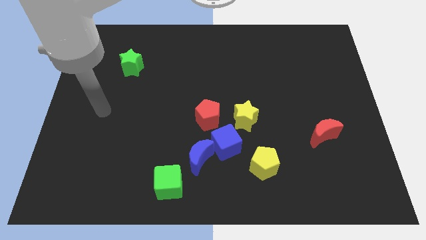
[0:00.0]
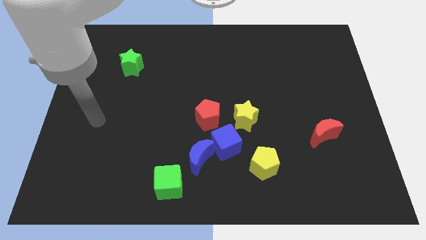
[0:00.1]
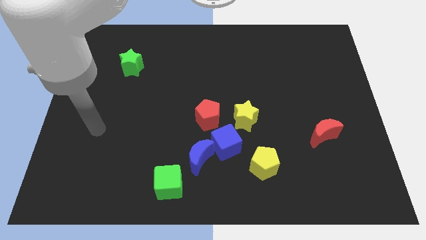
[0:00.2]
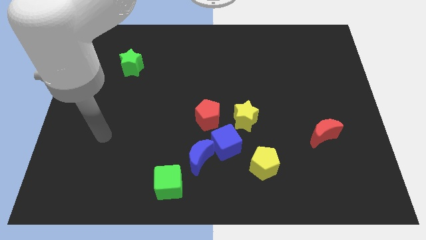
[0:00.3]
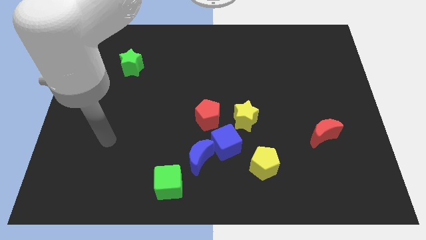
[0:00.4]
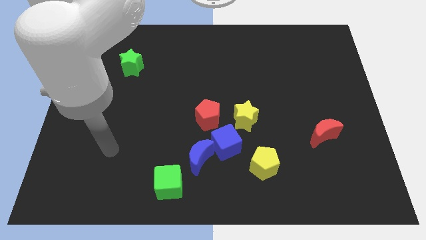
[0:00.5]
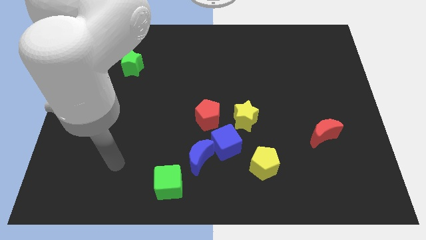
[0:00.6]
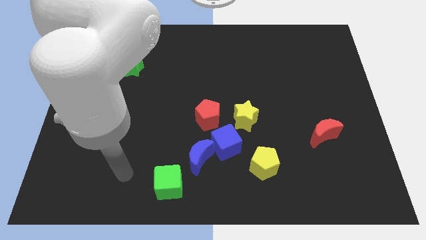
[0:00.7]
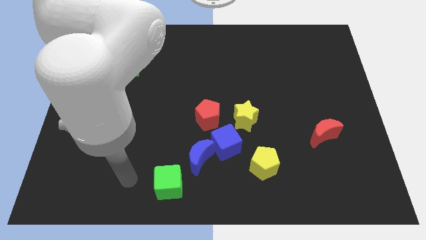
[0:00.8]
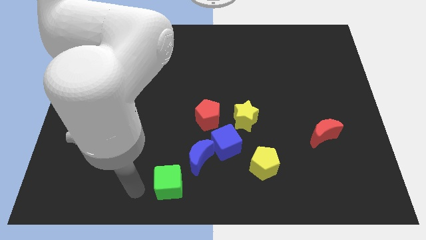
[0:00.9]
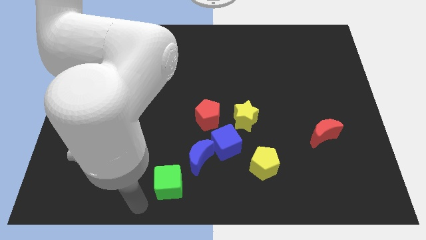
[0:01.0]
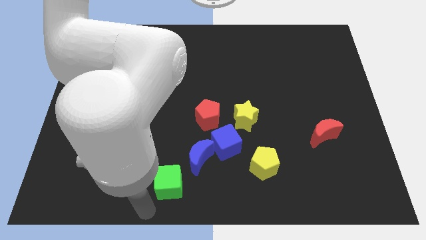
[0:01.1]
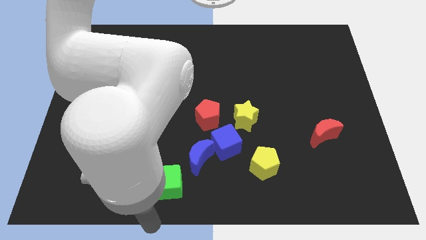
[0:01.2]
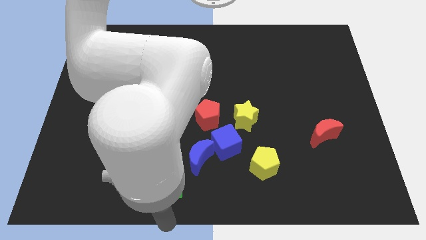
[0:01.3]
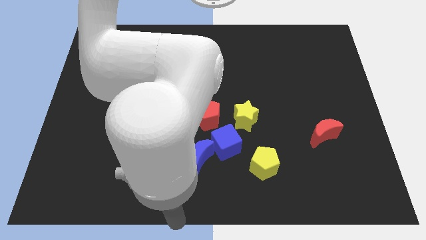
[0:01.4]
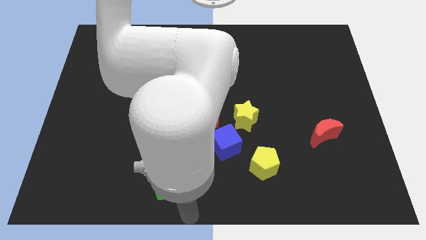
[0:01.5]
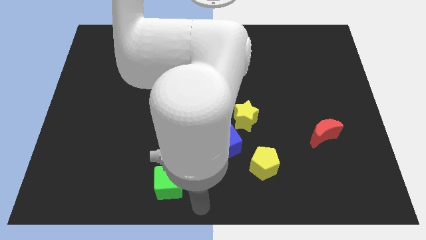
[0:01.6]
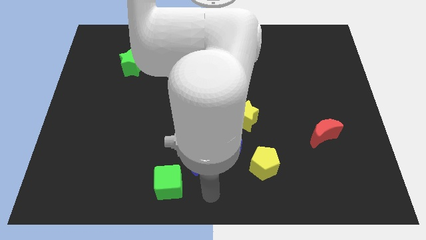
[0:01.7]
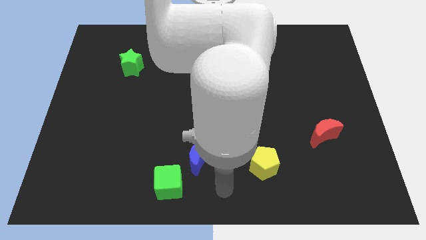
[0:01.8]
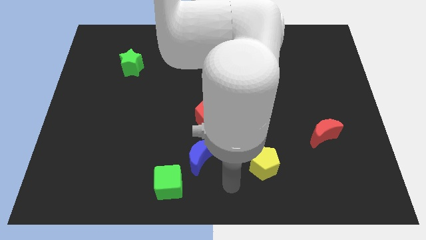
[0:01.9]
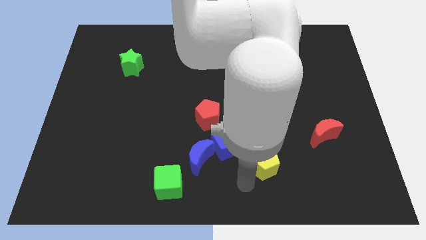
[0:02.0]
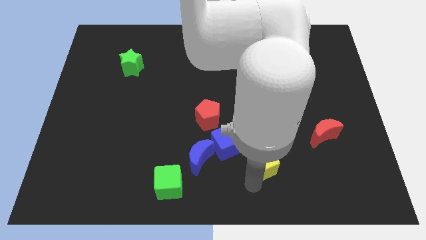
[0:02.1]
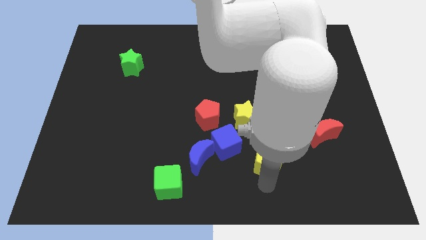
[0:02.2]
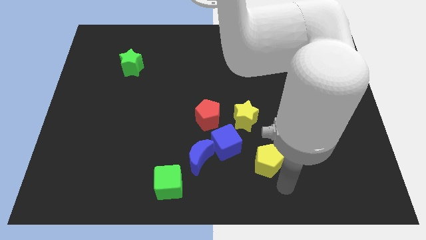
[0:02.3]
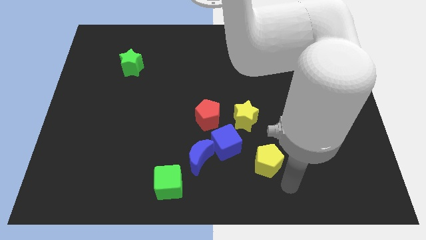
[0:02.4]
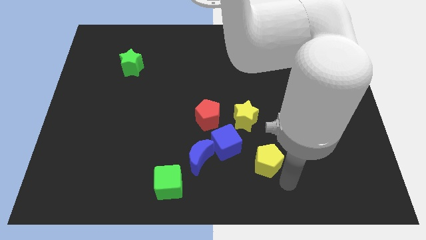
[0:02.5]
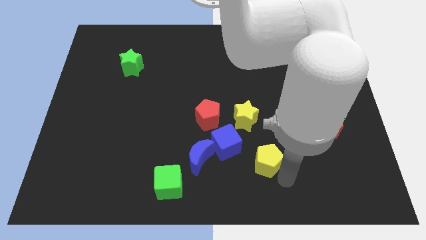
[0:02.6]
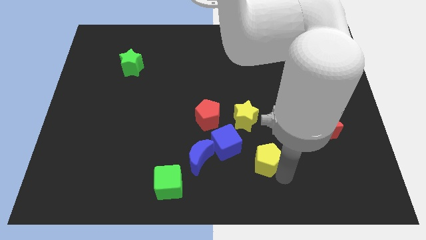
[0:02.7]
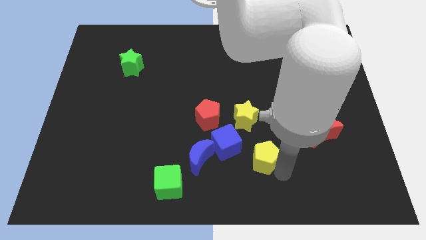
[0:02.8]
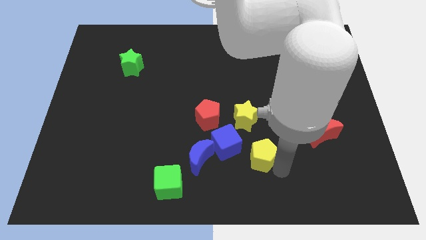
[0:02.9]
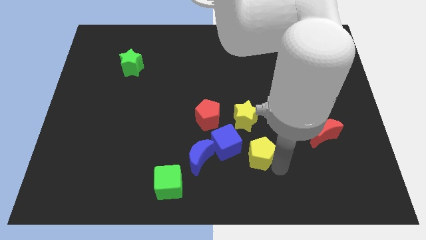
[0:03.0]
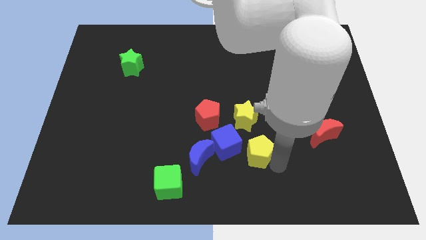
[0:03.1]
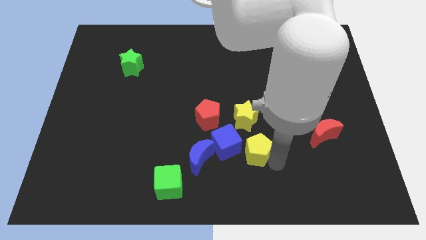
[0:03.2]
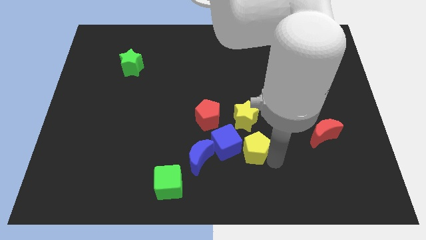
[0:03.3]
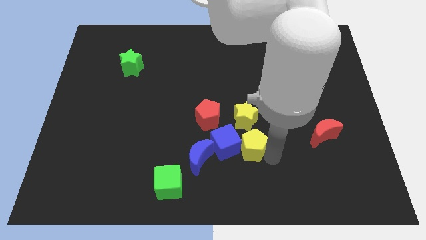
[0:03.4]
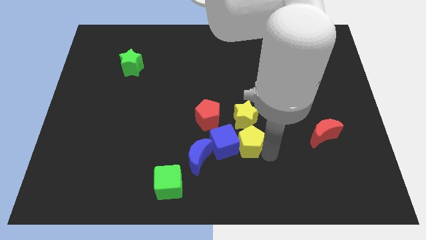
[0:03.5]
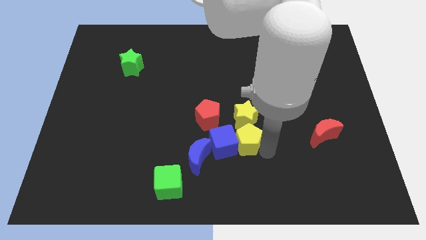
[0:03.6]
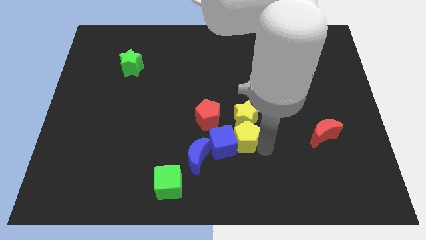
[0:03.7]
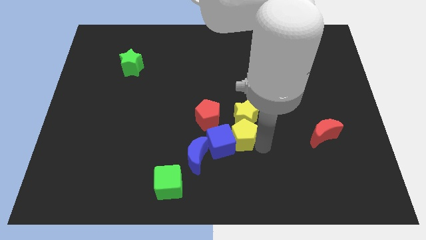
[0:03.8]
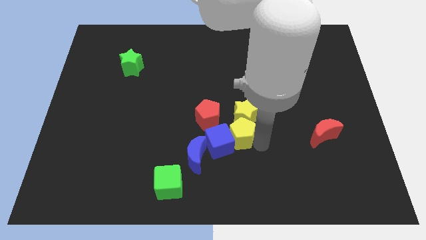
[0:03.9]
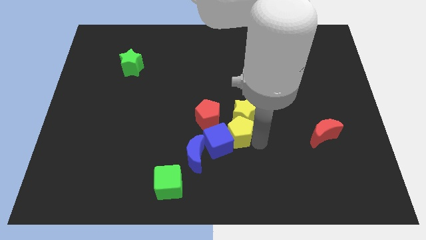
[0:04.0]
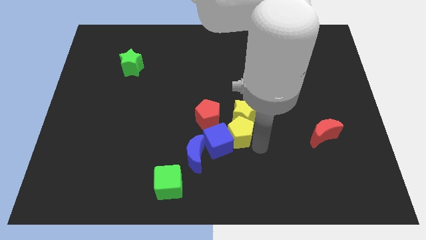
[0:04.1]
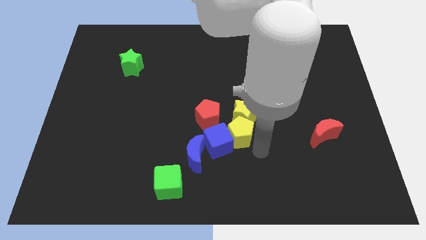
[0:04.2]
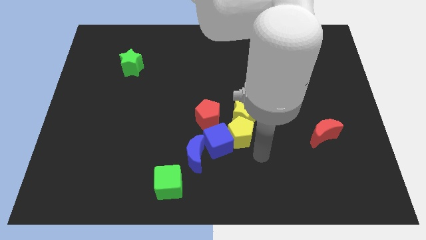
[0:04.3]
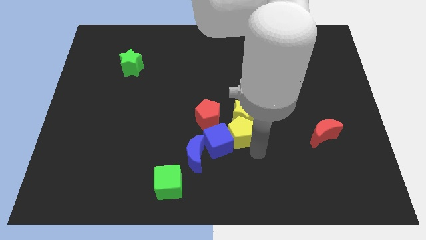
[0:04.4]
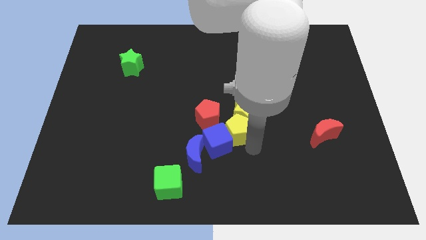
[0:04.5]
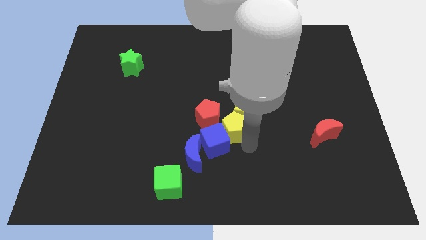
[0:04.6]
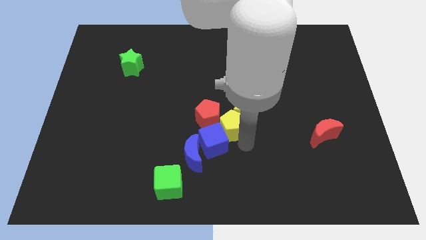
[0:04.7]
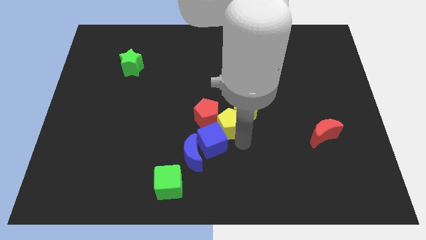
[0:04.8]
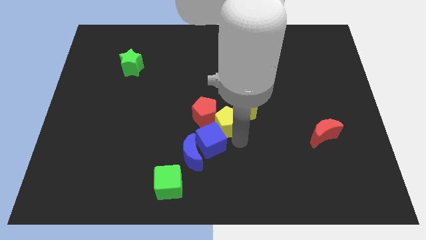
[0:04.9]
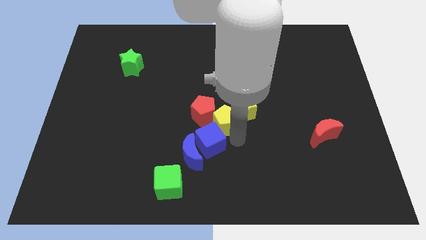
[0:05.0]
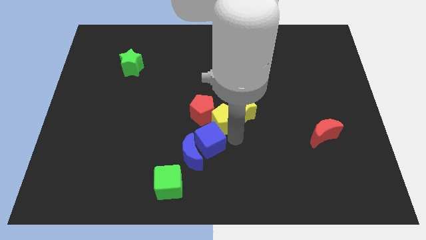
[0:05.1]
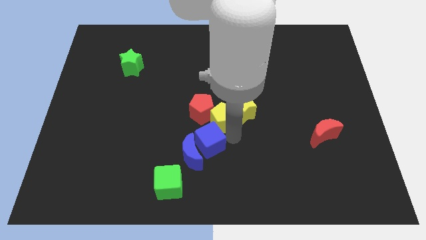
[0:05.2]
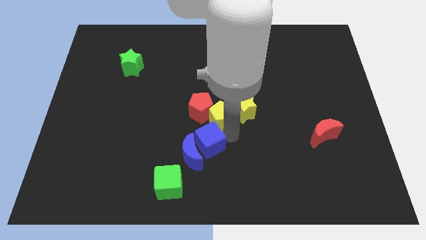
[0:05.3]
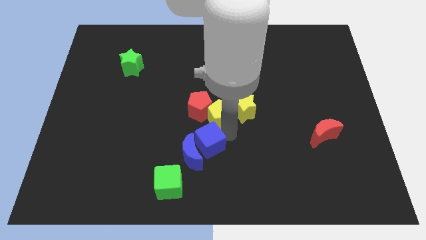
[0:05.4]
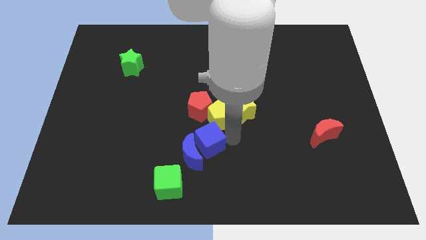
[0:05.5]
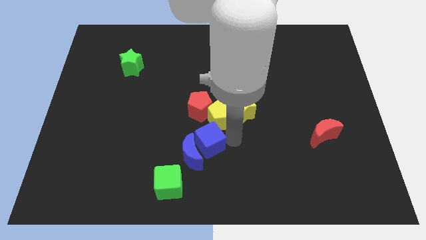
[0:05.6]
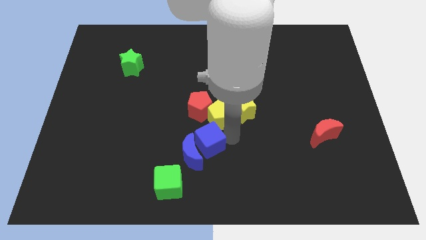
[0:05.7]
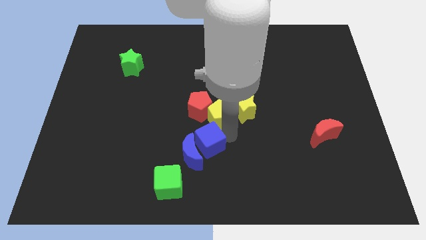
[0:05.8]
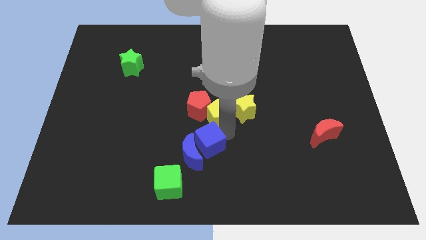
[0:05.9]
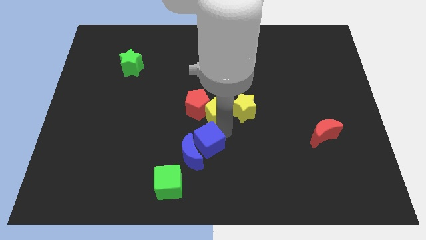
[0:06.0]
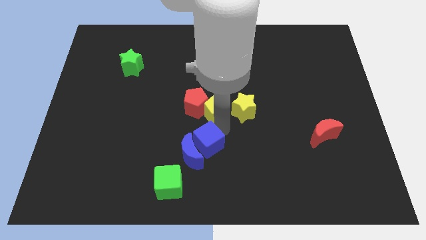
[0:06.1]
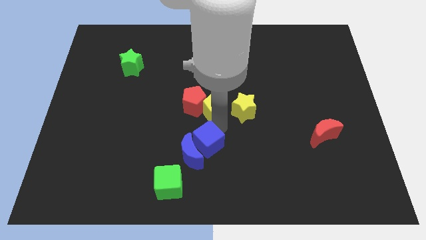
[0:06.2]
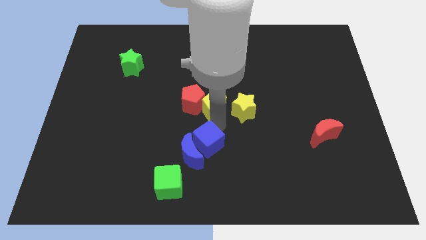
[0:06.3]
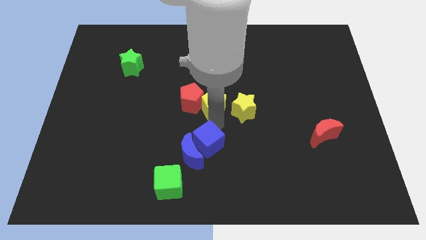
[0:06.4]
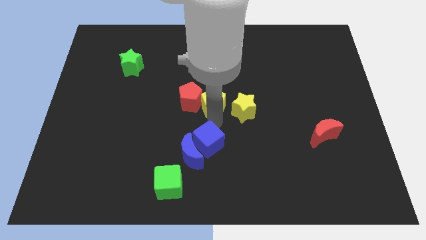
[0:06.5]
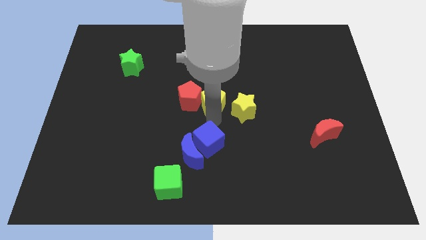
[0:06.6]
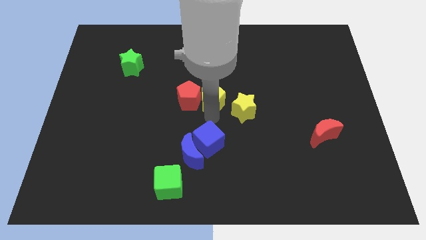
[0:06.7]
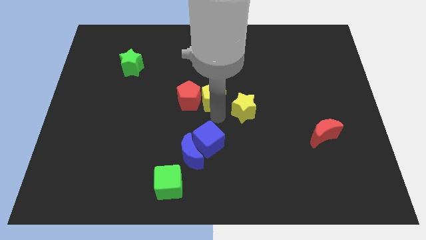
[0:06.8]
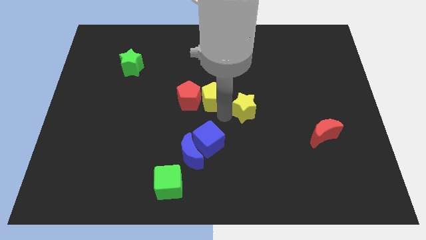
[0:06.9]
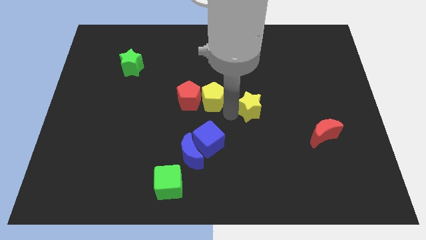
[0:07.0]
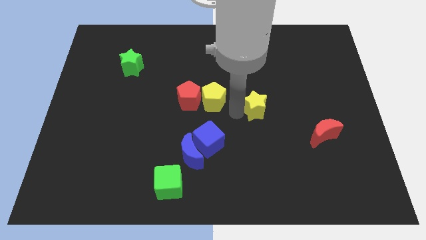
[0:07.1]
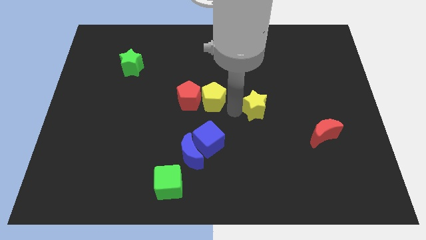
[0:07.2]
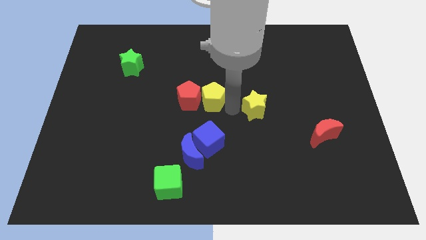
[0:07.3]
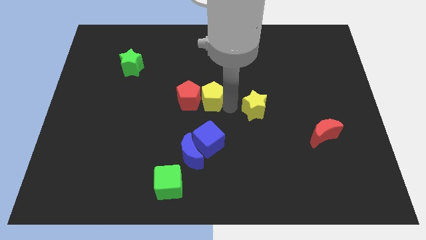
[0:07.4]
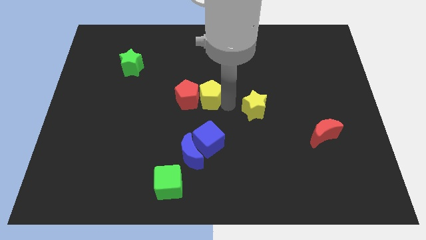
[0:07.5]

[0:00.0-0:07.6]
move the yellow pentagon upwards and to the left diagonally
